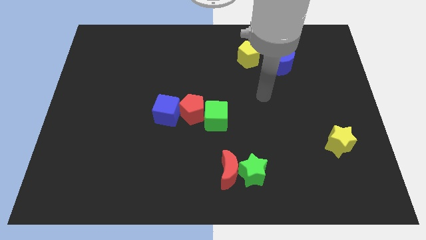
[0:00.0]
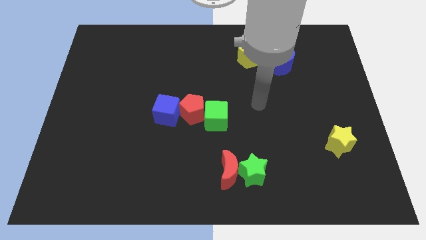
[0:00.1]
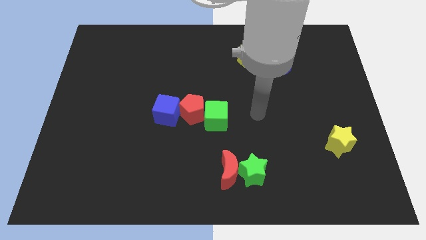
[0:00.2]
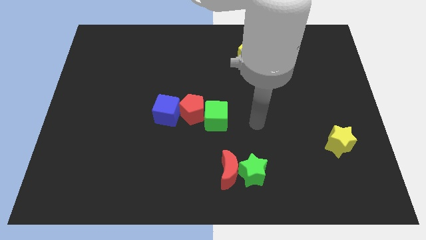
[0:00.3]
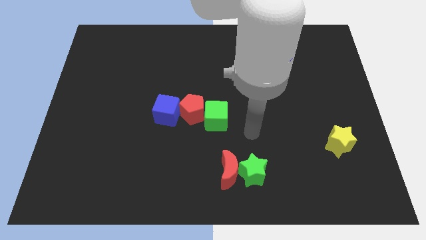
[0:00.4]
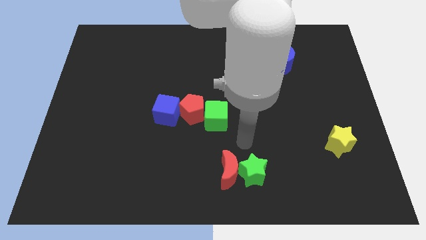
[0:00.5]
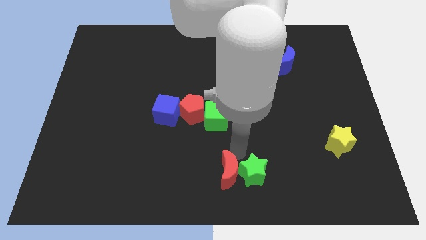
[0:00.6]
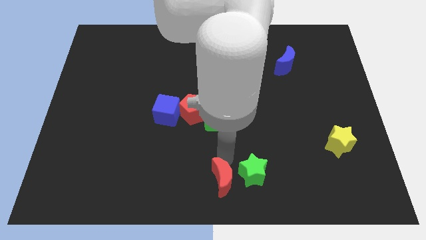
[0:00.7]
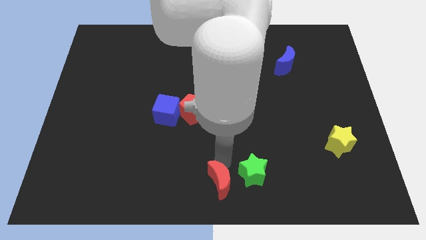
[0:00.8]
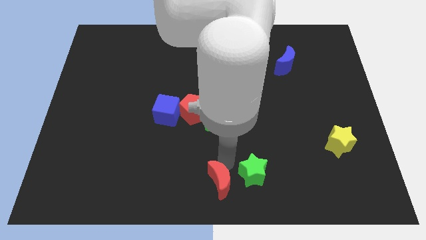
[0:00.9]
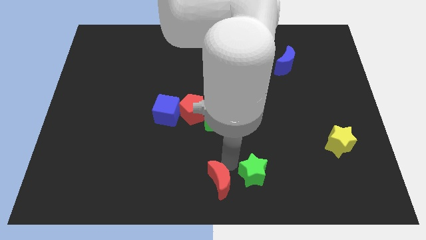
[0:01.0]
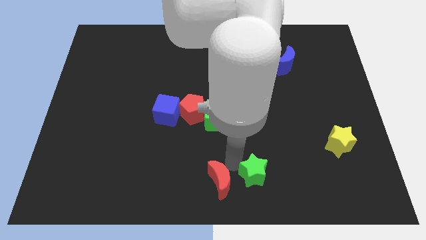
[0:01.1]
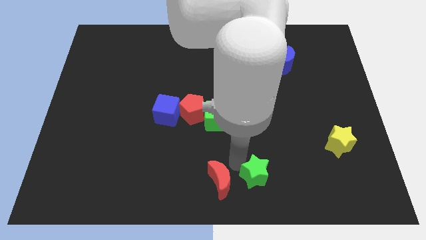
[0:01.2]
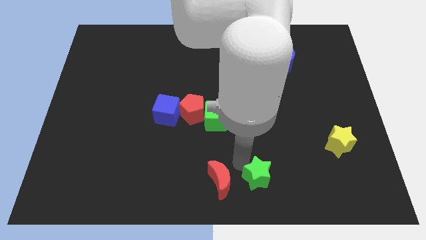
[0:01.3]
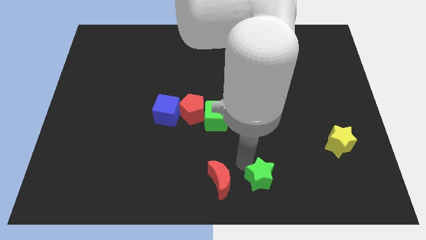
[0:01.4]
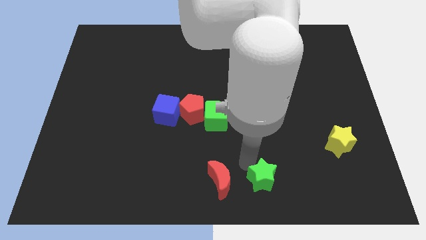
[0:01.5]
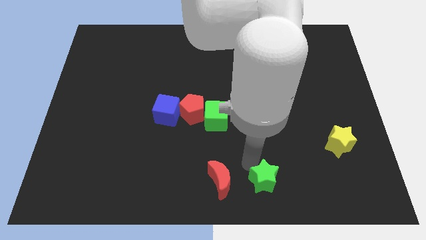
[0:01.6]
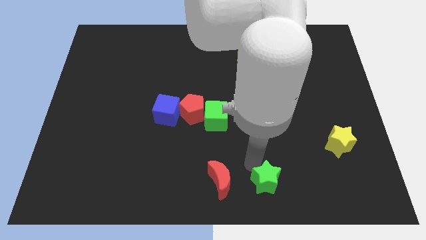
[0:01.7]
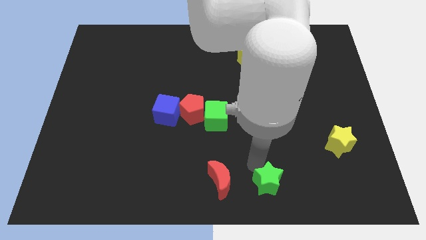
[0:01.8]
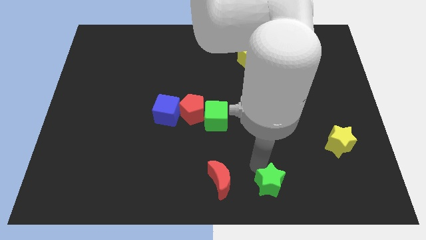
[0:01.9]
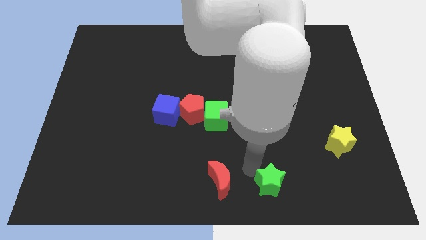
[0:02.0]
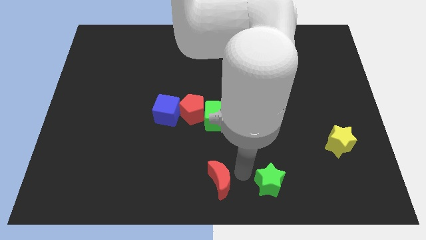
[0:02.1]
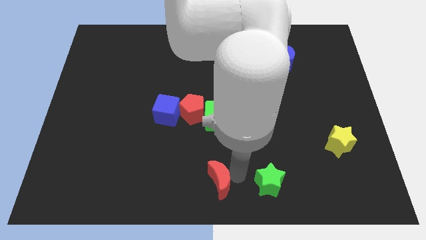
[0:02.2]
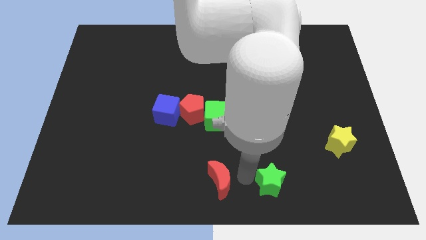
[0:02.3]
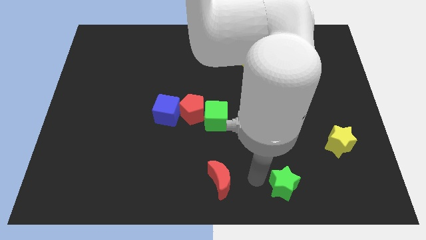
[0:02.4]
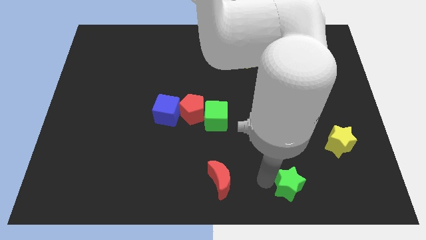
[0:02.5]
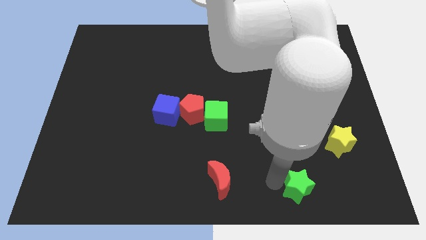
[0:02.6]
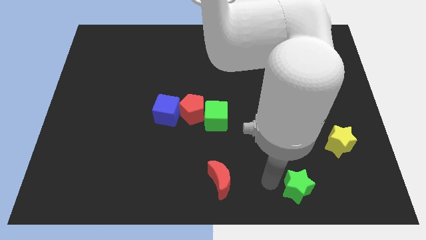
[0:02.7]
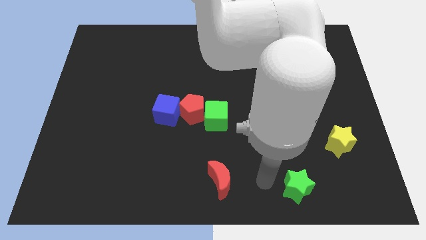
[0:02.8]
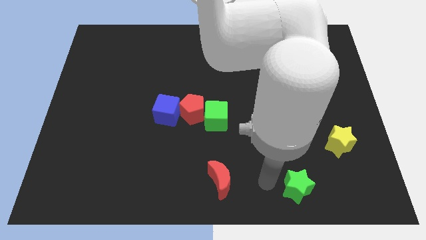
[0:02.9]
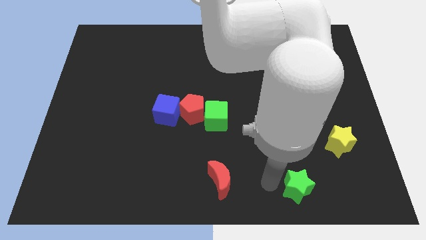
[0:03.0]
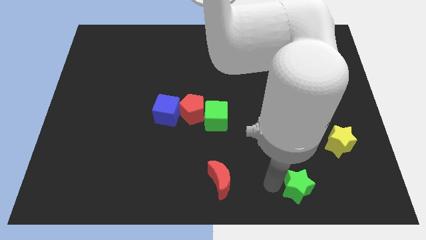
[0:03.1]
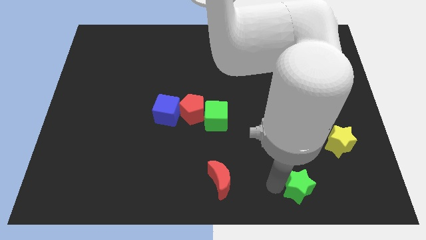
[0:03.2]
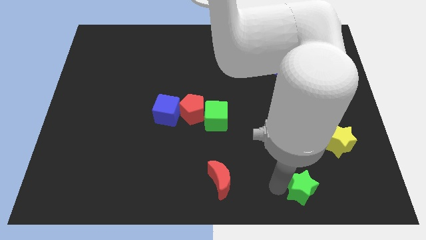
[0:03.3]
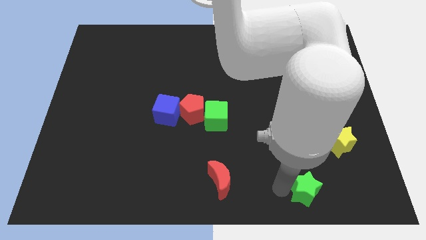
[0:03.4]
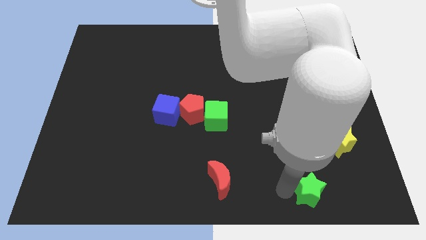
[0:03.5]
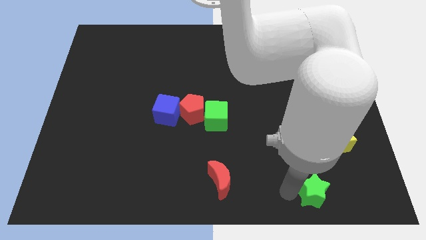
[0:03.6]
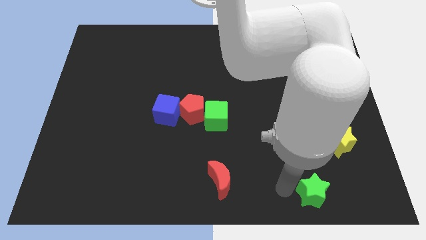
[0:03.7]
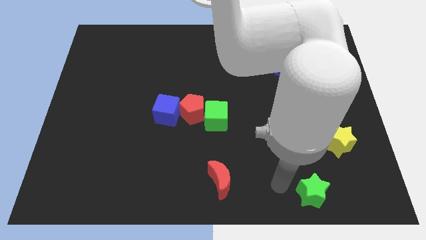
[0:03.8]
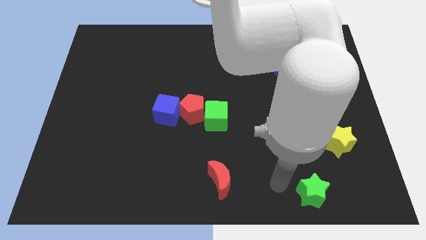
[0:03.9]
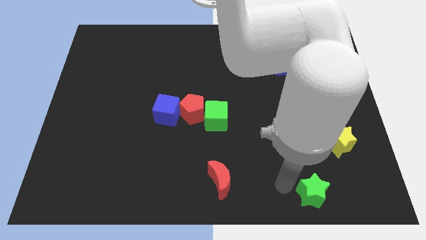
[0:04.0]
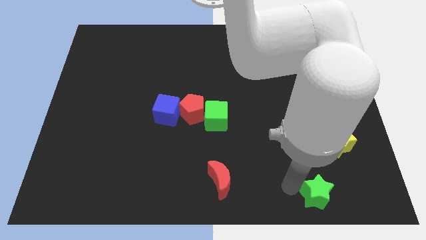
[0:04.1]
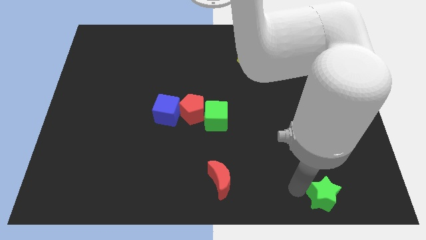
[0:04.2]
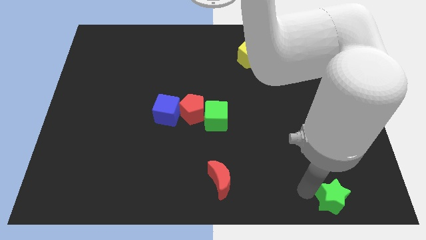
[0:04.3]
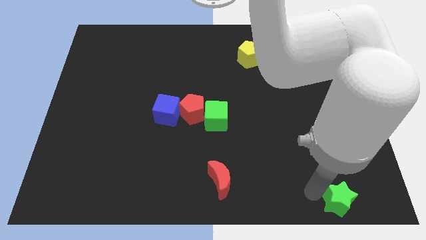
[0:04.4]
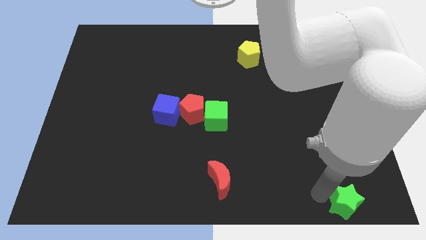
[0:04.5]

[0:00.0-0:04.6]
push the green star to the bottom right

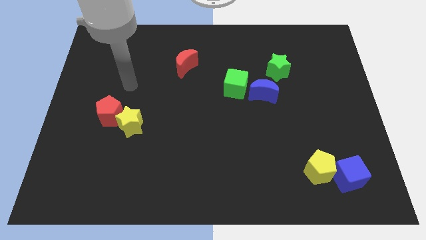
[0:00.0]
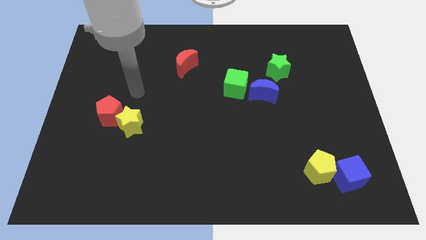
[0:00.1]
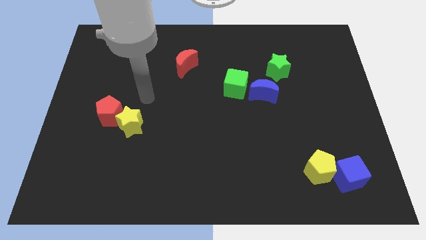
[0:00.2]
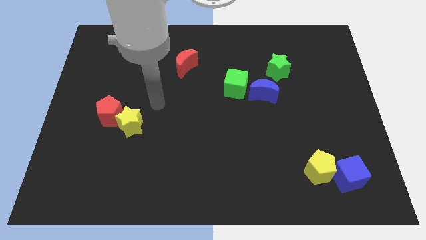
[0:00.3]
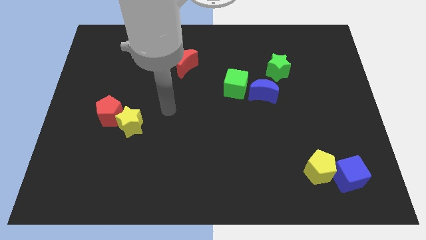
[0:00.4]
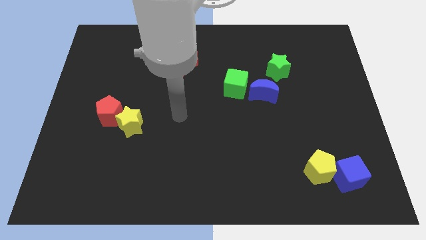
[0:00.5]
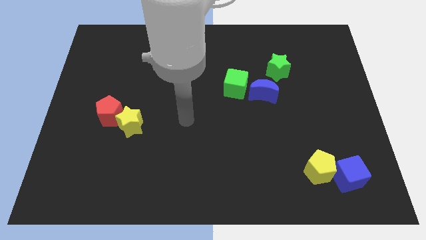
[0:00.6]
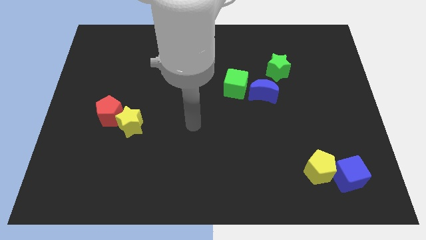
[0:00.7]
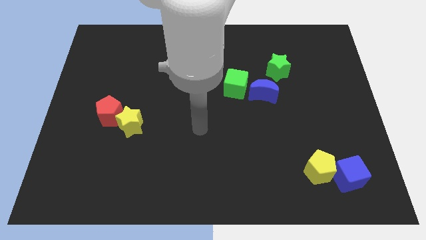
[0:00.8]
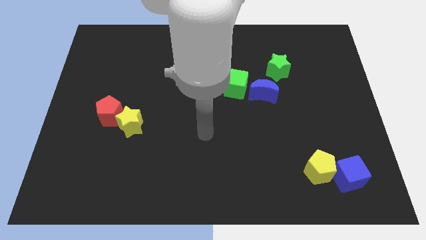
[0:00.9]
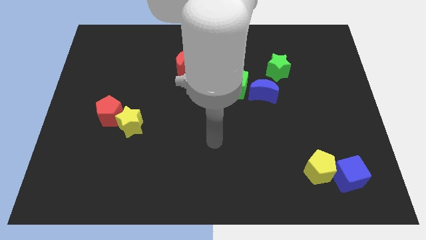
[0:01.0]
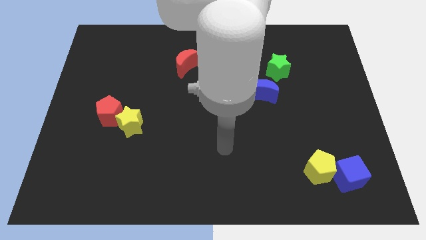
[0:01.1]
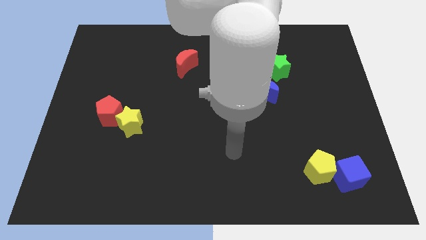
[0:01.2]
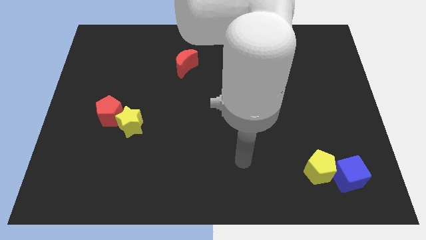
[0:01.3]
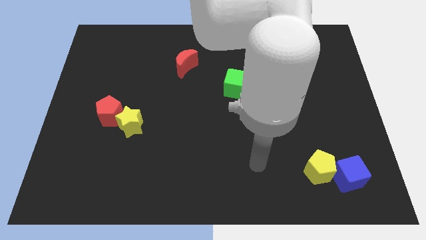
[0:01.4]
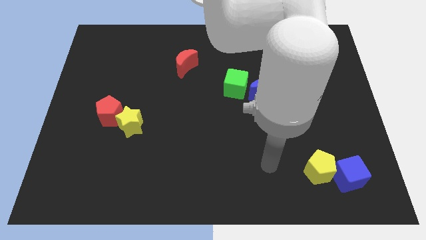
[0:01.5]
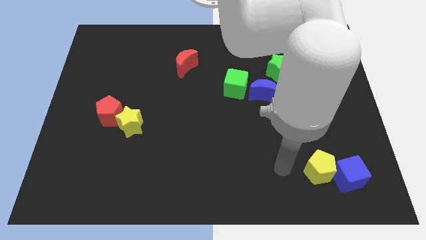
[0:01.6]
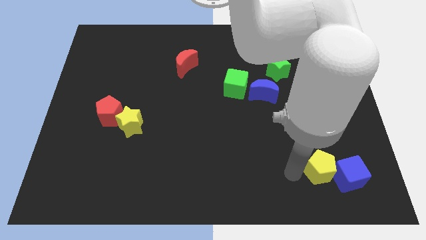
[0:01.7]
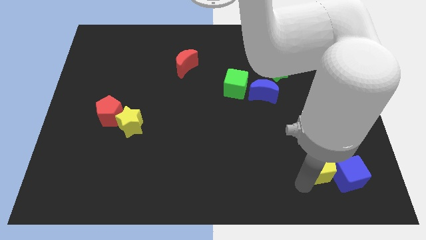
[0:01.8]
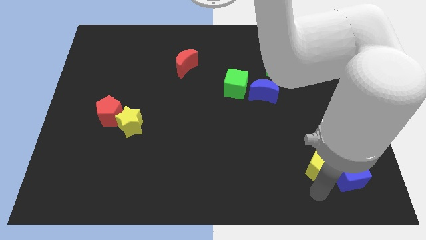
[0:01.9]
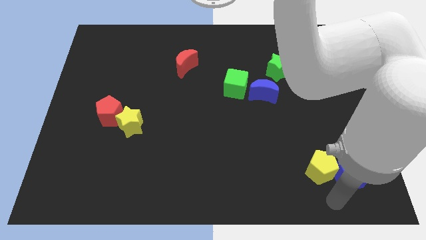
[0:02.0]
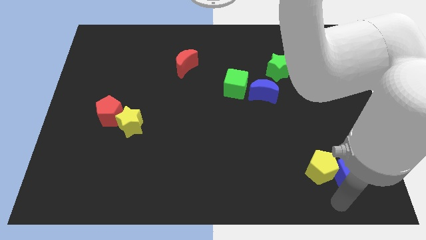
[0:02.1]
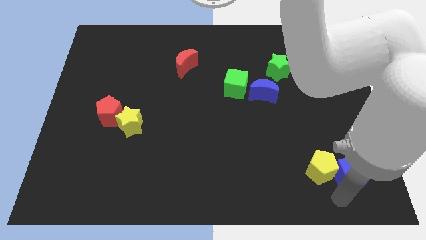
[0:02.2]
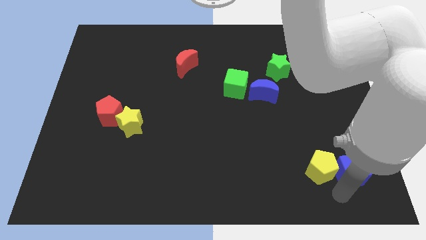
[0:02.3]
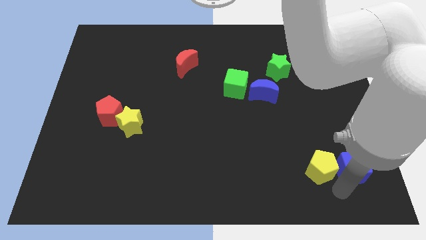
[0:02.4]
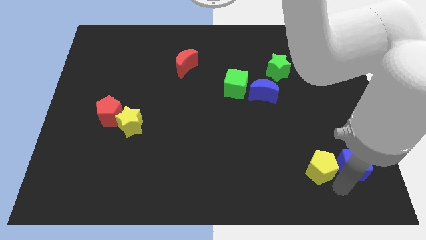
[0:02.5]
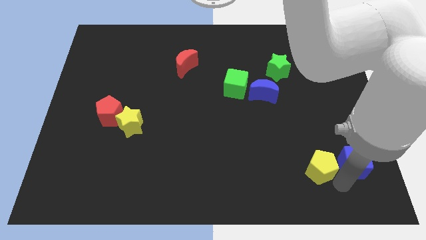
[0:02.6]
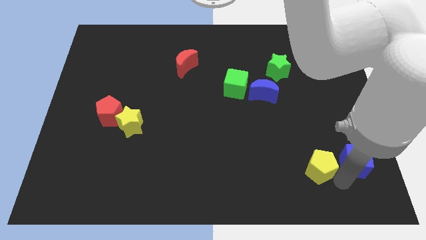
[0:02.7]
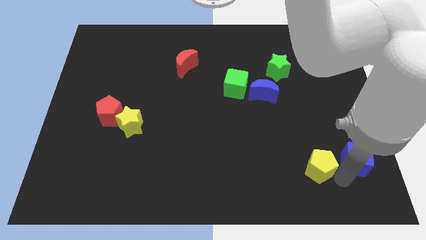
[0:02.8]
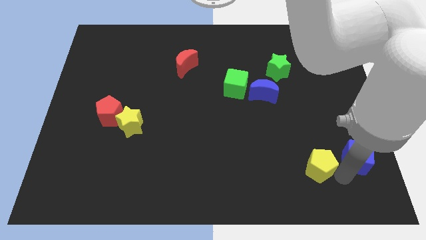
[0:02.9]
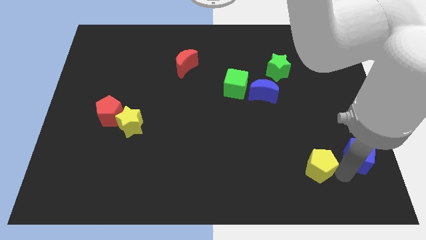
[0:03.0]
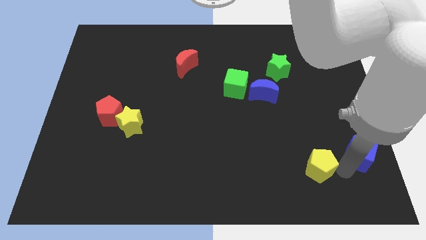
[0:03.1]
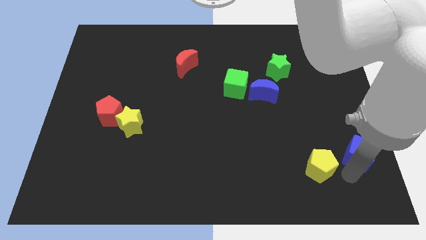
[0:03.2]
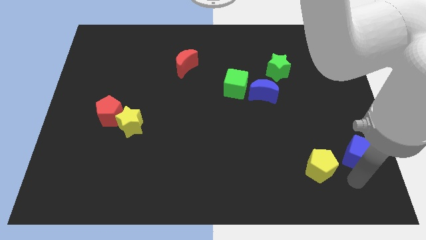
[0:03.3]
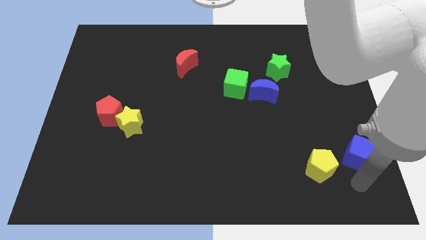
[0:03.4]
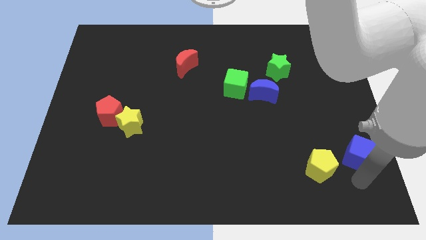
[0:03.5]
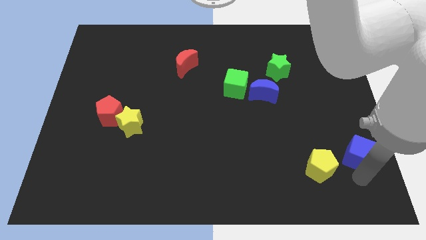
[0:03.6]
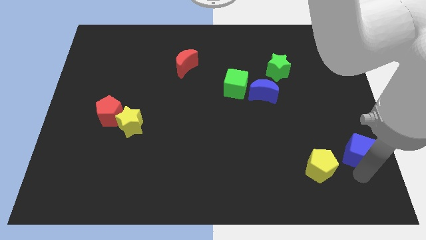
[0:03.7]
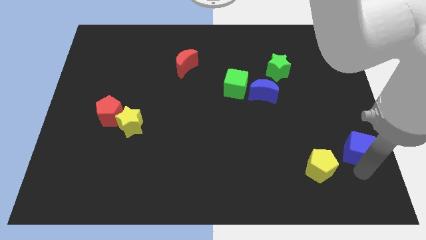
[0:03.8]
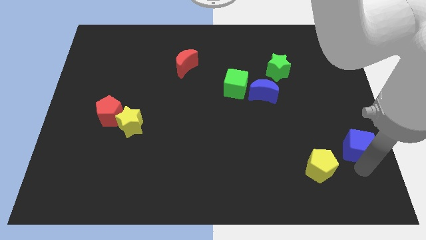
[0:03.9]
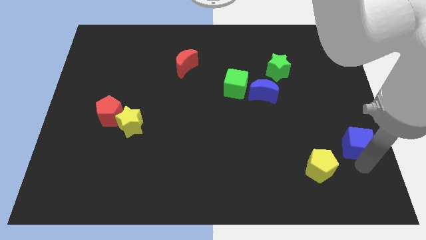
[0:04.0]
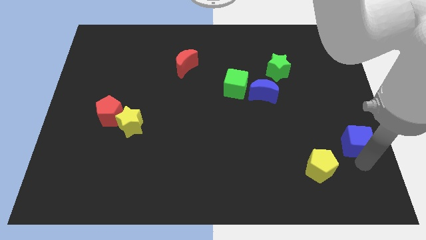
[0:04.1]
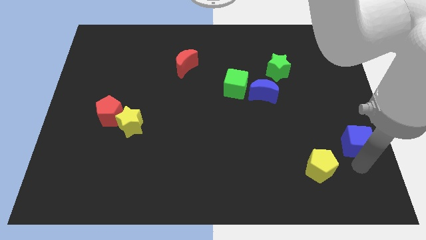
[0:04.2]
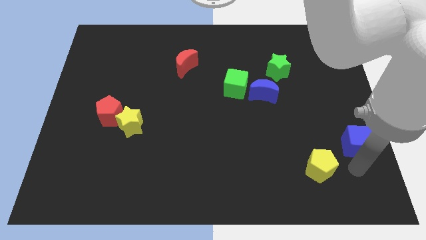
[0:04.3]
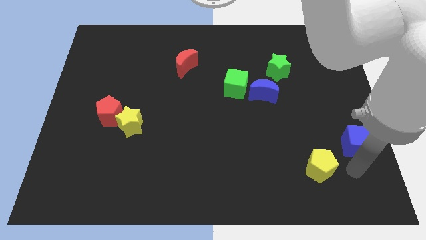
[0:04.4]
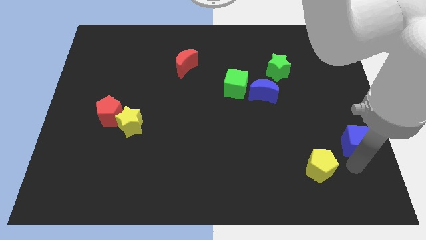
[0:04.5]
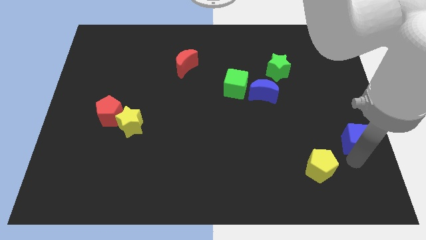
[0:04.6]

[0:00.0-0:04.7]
slide the blue cube to the center right
